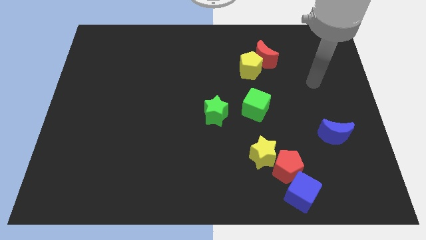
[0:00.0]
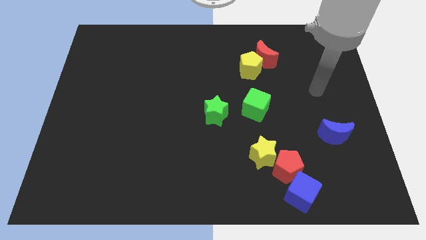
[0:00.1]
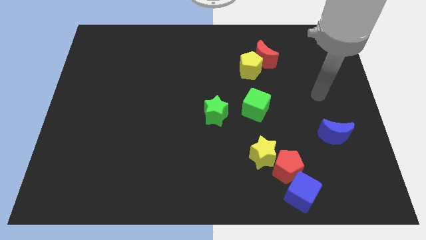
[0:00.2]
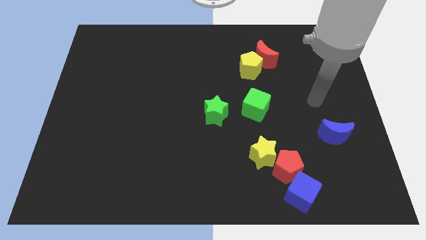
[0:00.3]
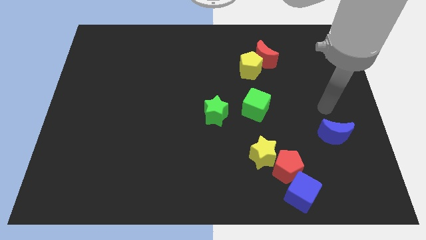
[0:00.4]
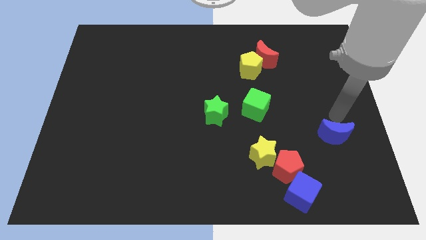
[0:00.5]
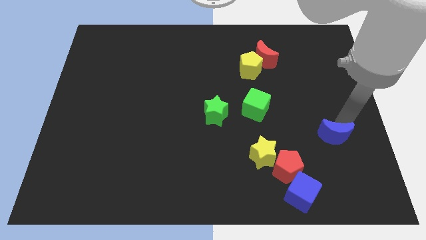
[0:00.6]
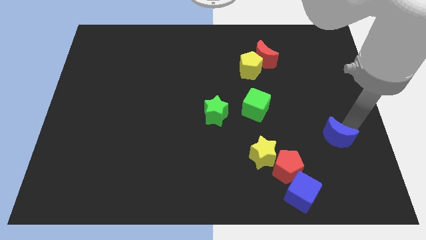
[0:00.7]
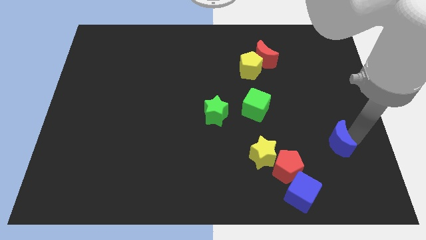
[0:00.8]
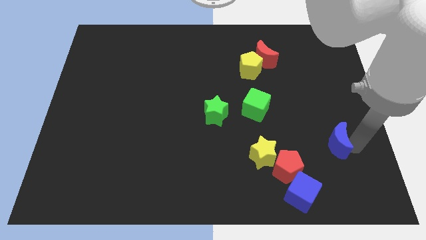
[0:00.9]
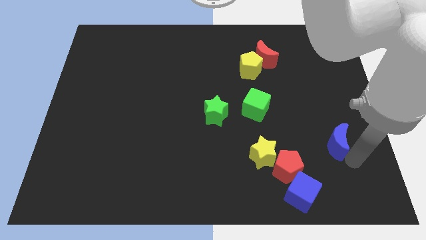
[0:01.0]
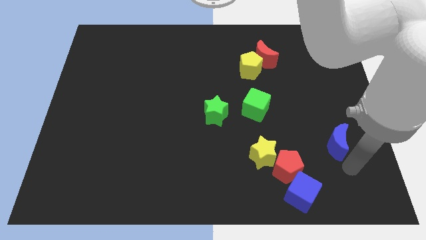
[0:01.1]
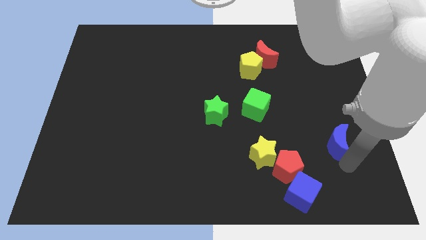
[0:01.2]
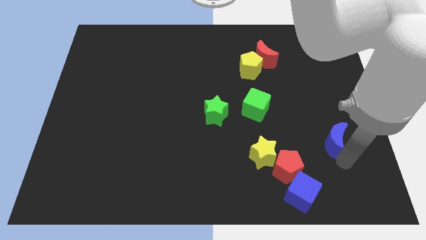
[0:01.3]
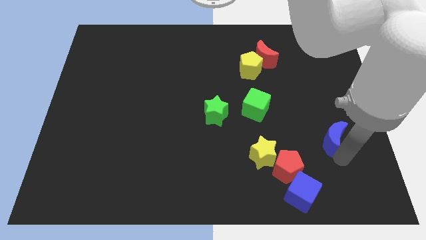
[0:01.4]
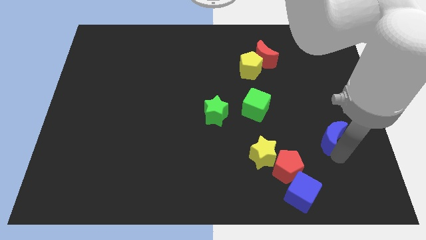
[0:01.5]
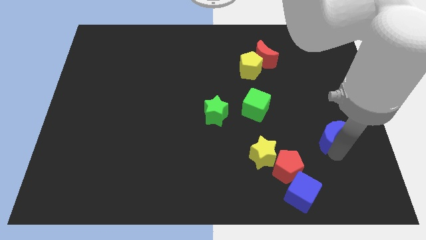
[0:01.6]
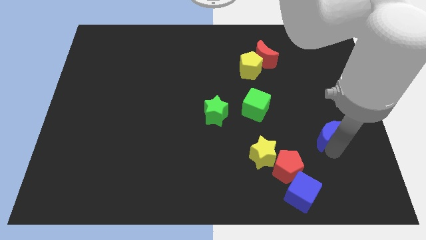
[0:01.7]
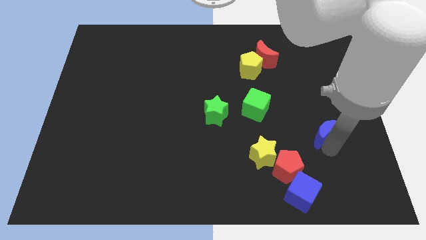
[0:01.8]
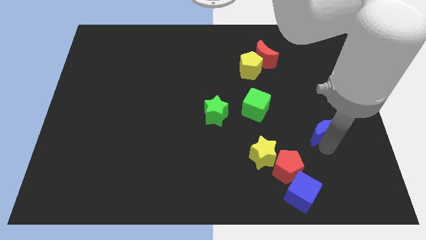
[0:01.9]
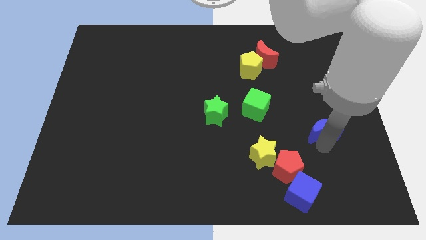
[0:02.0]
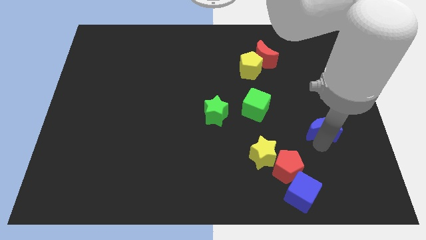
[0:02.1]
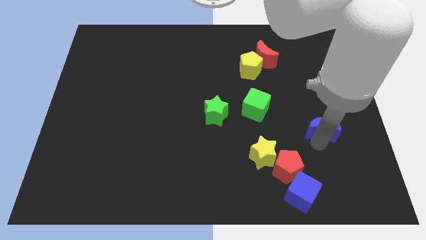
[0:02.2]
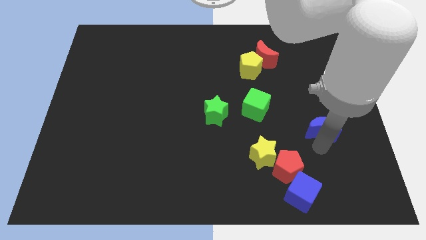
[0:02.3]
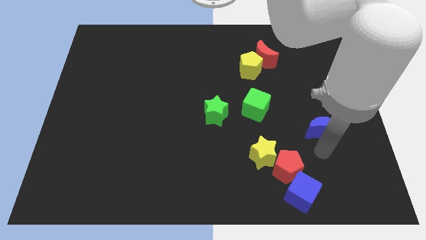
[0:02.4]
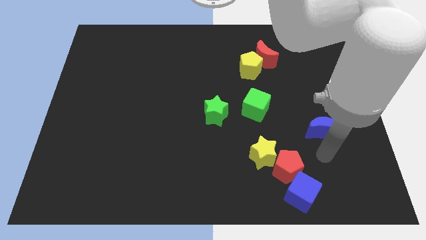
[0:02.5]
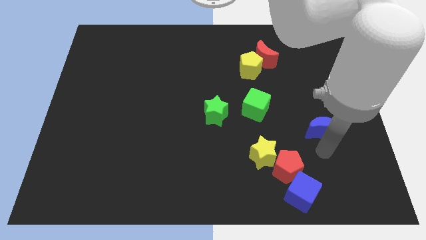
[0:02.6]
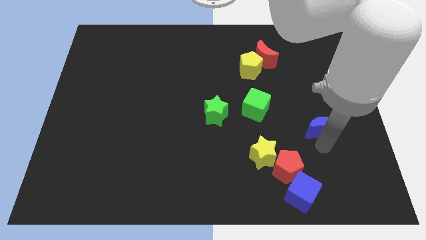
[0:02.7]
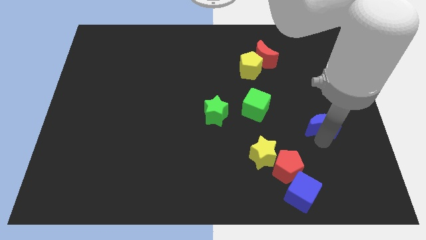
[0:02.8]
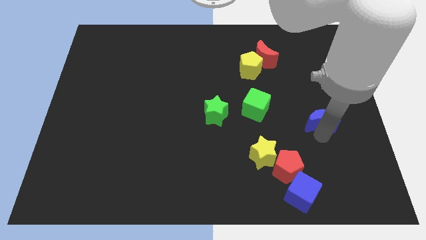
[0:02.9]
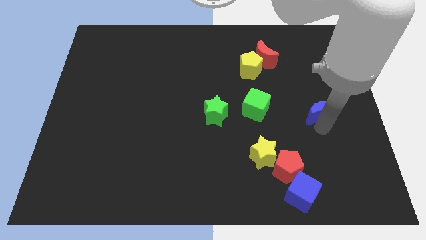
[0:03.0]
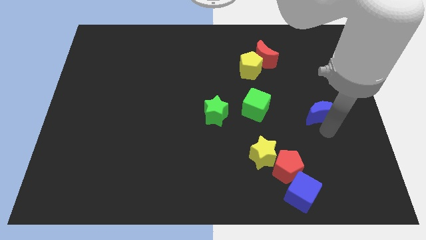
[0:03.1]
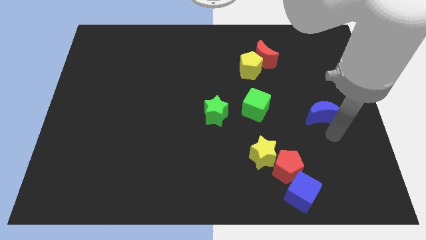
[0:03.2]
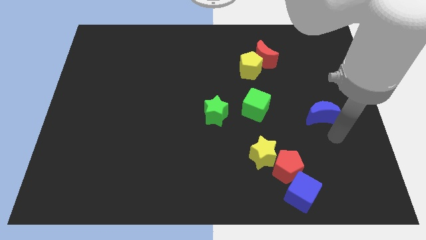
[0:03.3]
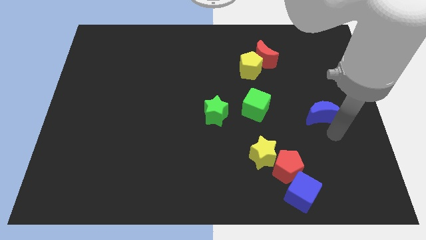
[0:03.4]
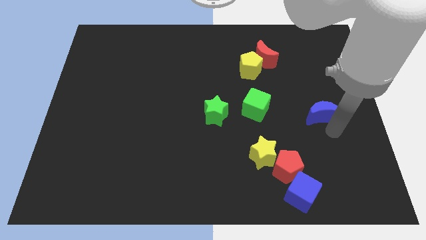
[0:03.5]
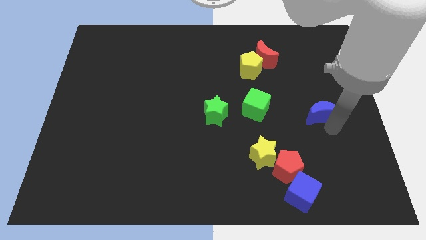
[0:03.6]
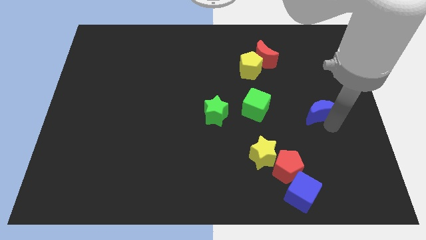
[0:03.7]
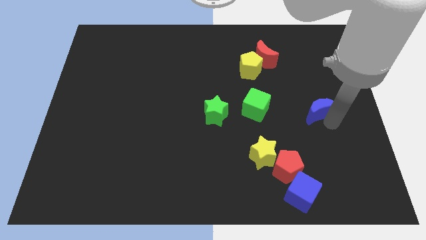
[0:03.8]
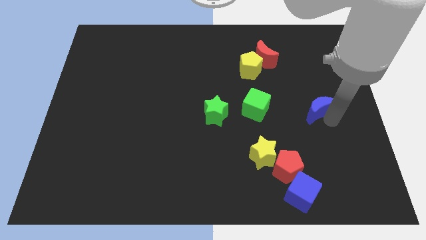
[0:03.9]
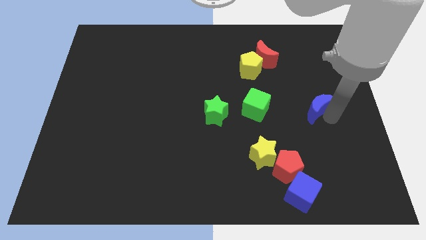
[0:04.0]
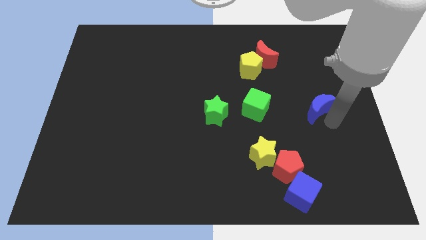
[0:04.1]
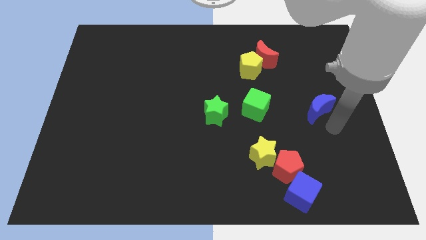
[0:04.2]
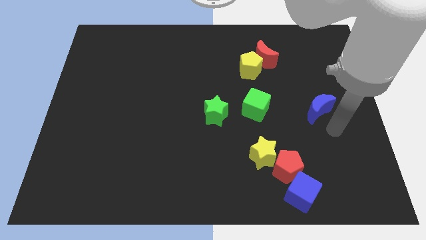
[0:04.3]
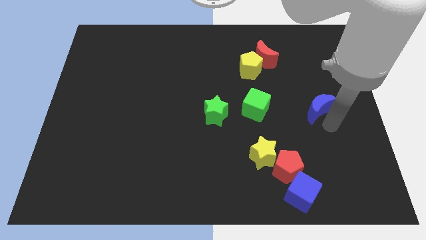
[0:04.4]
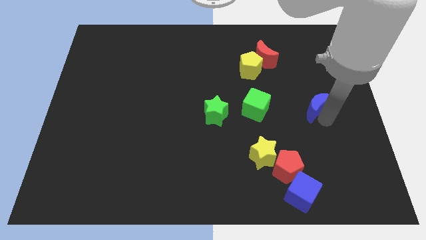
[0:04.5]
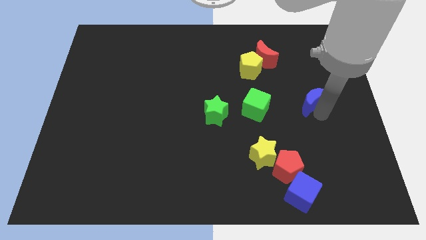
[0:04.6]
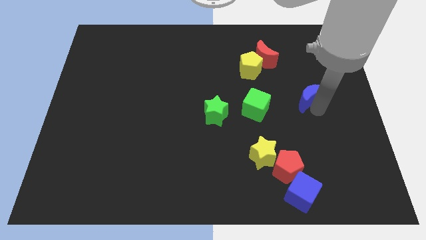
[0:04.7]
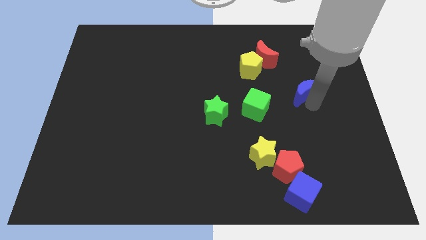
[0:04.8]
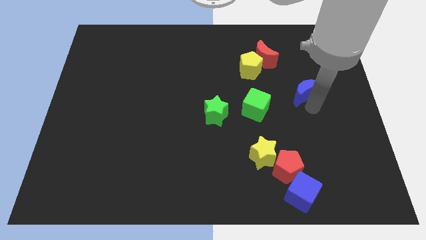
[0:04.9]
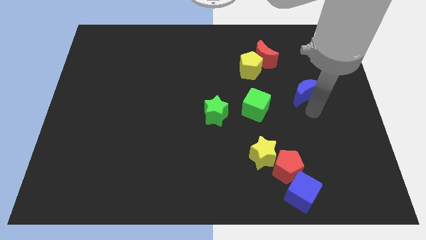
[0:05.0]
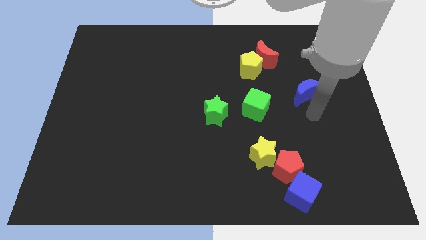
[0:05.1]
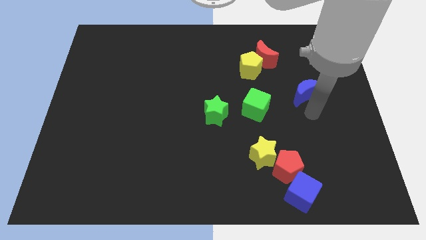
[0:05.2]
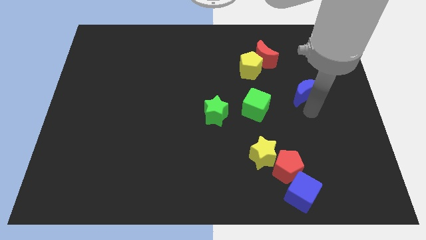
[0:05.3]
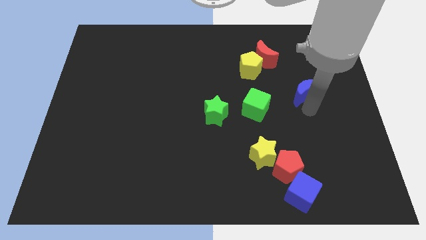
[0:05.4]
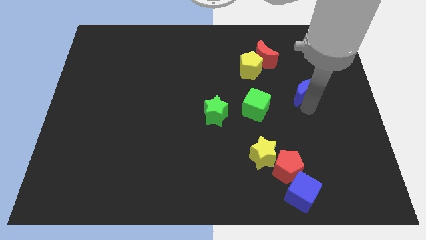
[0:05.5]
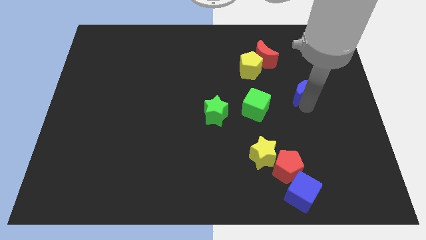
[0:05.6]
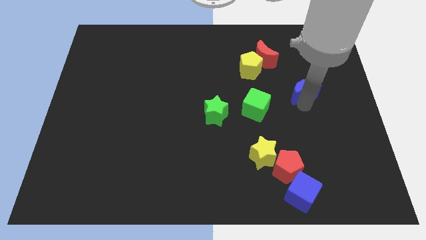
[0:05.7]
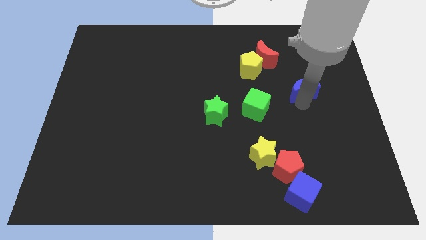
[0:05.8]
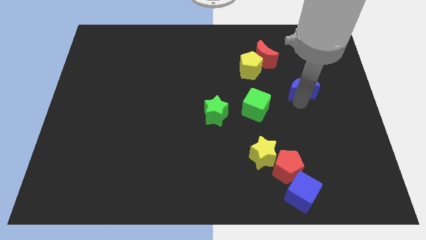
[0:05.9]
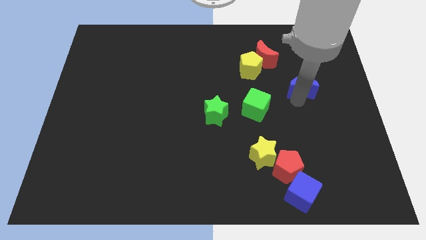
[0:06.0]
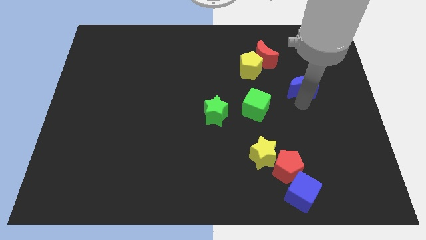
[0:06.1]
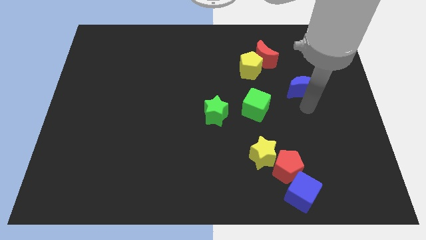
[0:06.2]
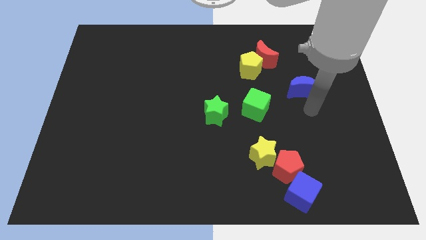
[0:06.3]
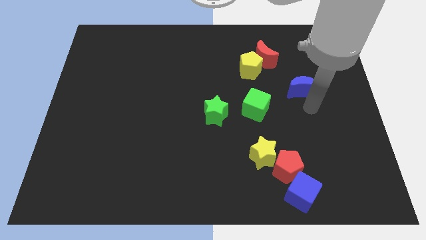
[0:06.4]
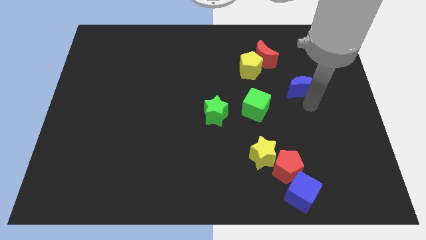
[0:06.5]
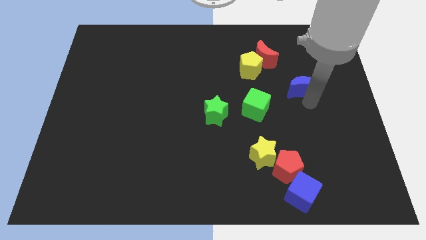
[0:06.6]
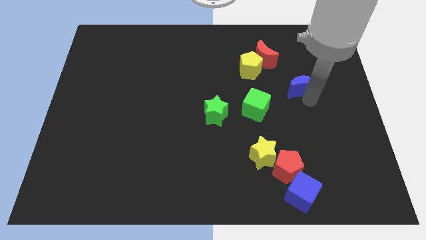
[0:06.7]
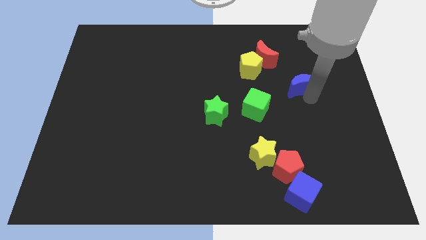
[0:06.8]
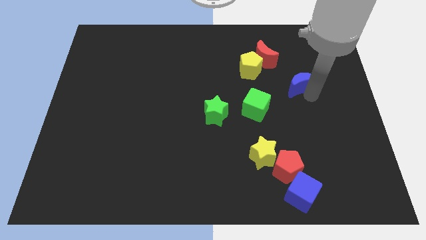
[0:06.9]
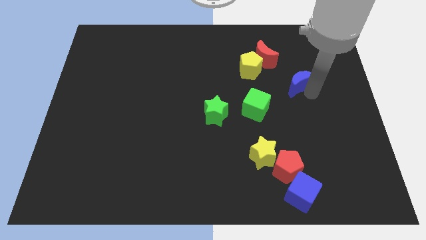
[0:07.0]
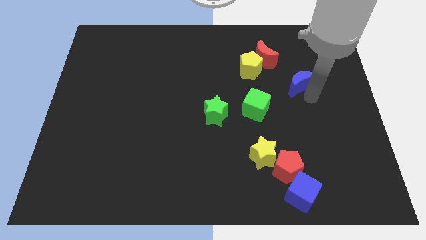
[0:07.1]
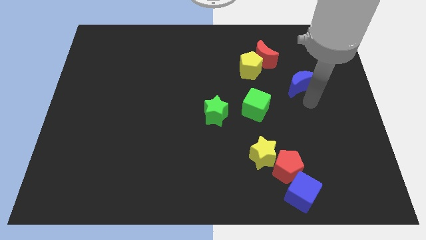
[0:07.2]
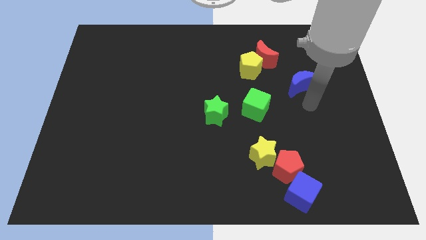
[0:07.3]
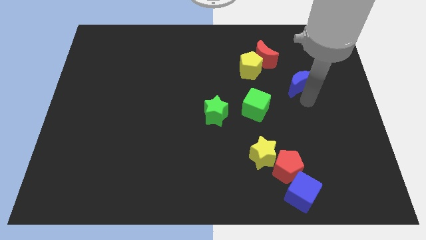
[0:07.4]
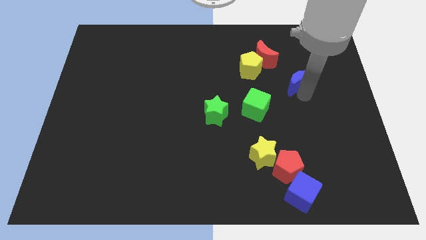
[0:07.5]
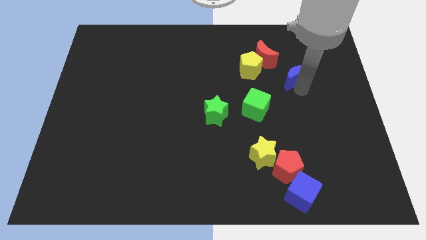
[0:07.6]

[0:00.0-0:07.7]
slide the blue moon just right of the yellow pentagon
